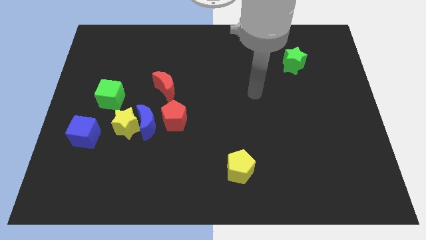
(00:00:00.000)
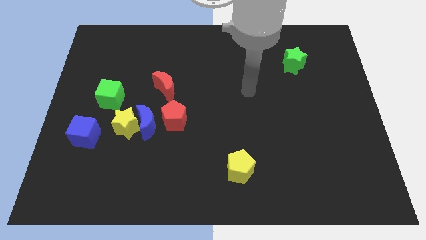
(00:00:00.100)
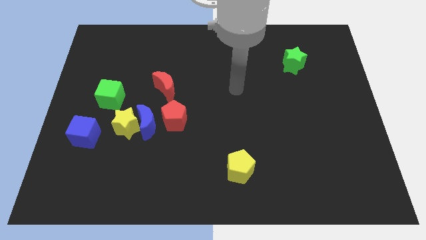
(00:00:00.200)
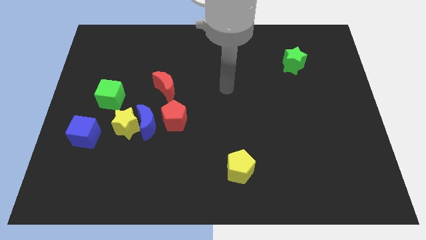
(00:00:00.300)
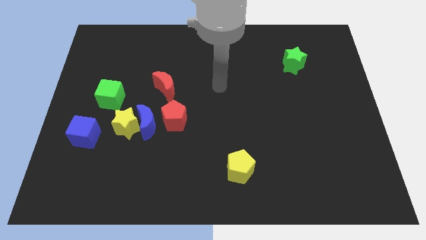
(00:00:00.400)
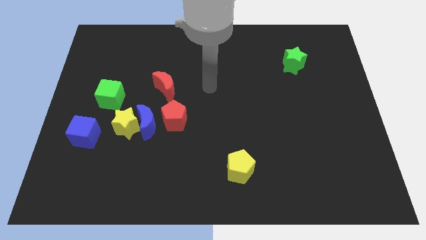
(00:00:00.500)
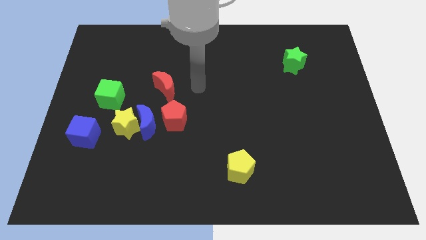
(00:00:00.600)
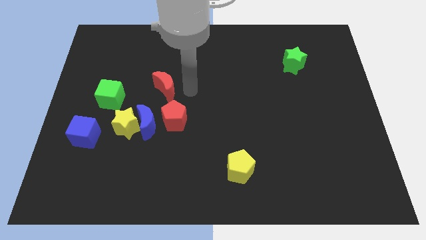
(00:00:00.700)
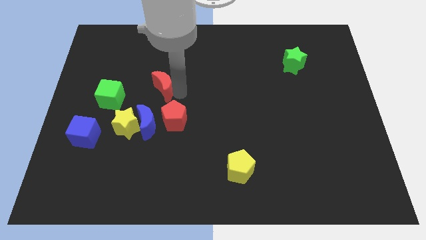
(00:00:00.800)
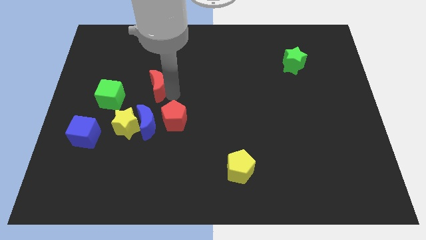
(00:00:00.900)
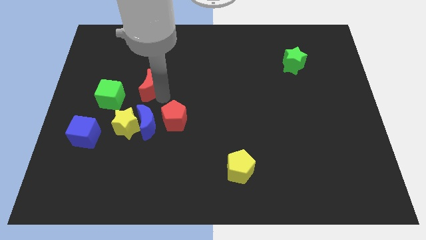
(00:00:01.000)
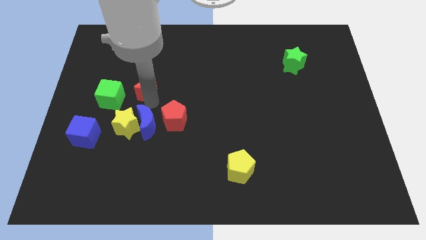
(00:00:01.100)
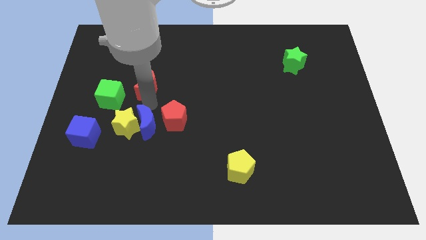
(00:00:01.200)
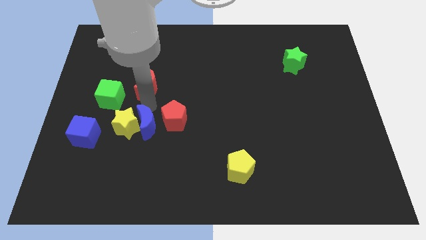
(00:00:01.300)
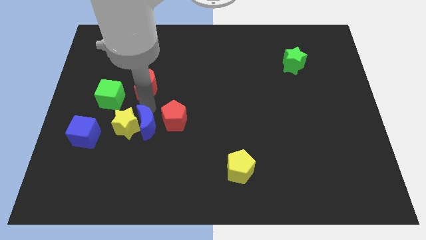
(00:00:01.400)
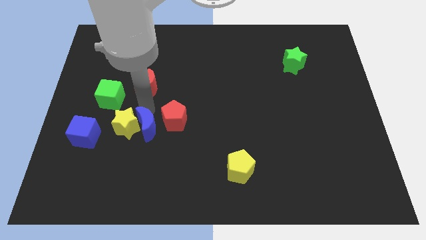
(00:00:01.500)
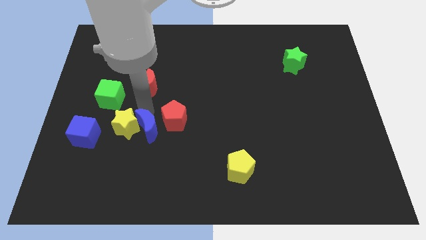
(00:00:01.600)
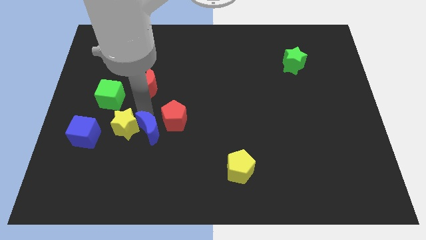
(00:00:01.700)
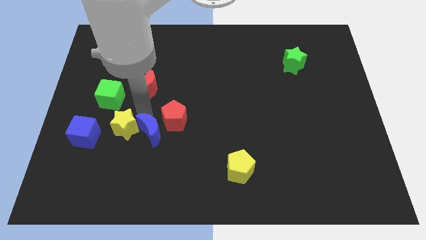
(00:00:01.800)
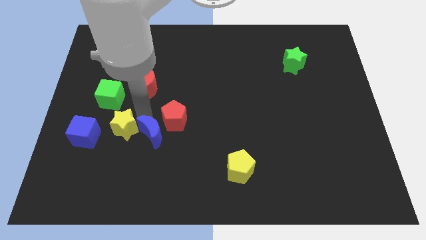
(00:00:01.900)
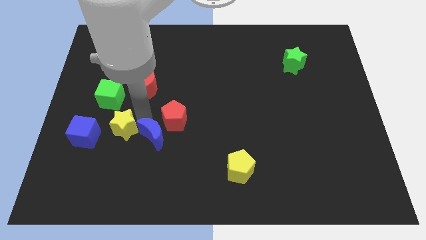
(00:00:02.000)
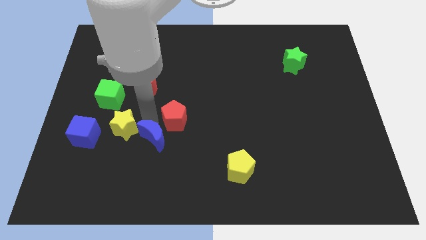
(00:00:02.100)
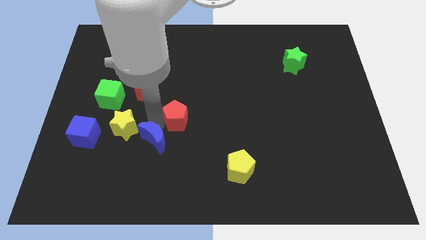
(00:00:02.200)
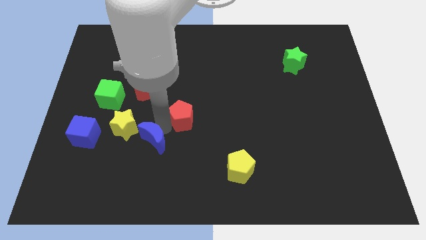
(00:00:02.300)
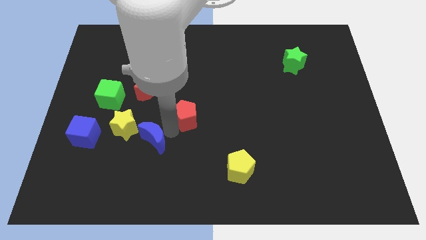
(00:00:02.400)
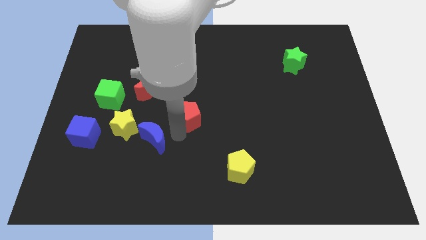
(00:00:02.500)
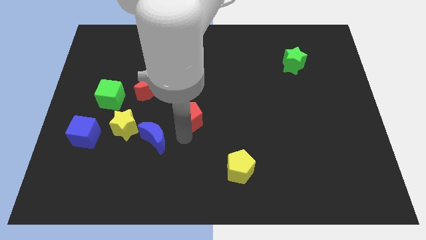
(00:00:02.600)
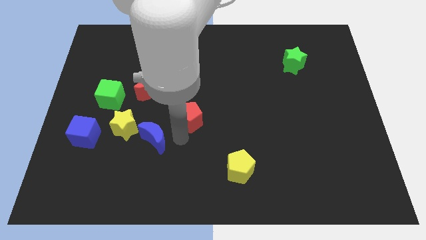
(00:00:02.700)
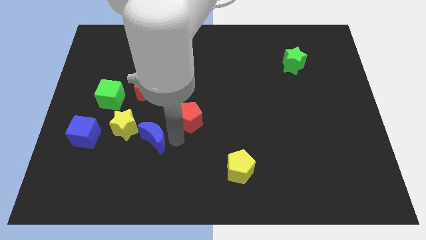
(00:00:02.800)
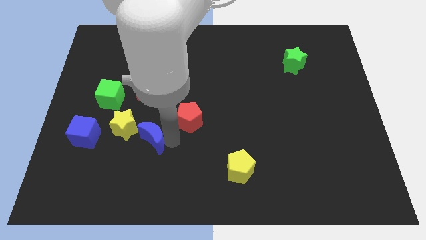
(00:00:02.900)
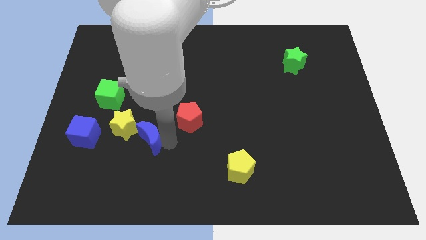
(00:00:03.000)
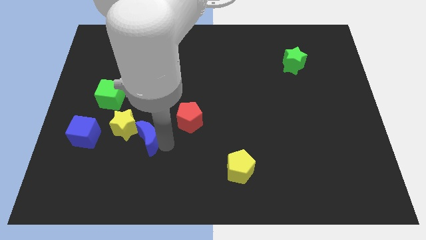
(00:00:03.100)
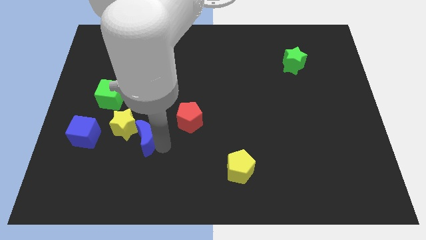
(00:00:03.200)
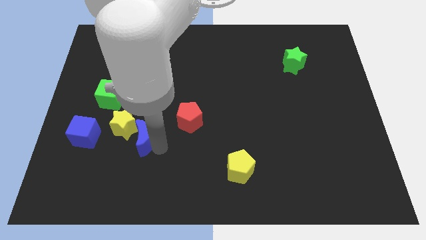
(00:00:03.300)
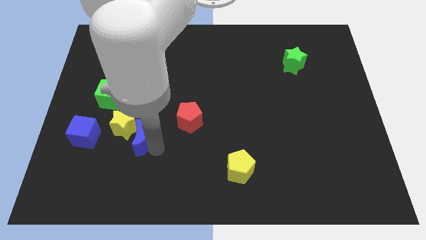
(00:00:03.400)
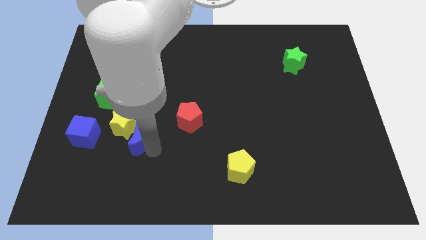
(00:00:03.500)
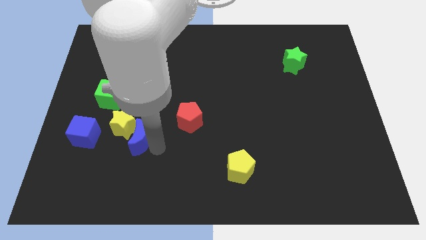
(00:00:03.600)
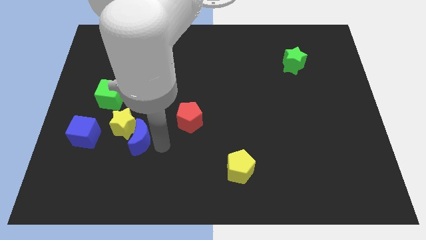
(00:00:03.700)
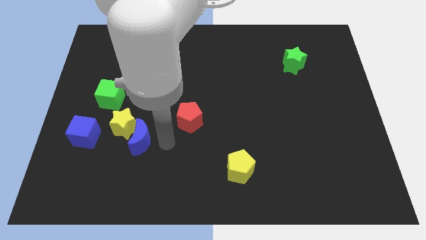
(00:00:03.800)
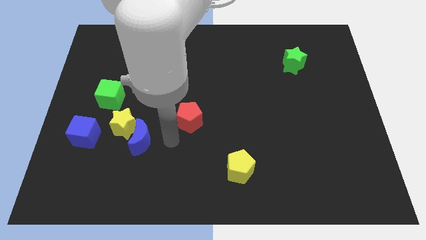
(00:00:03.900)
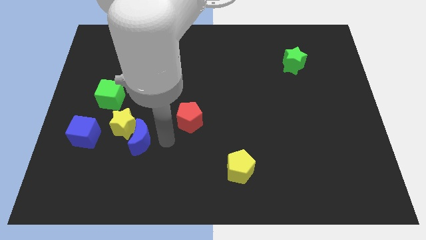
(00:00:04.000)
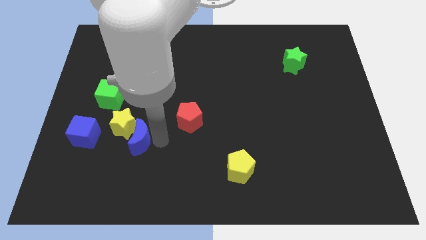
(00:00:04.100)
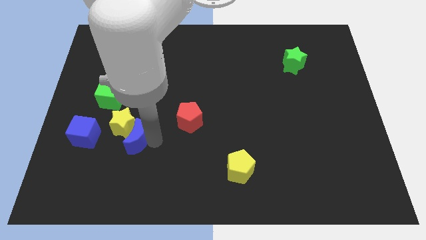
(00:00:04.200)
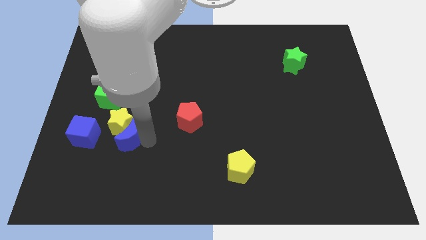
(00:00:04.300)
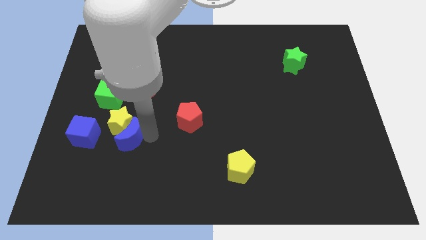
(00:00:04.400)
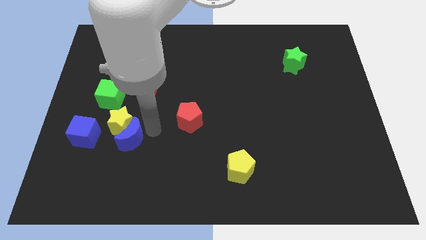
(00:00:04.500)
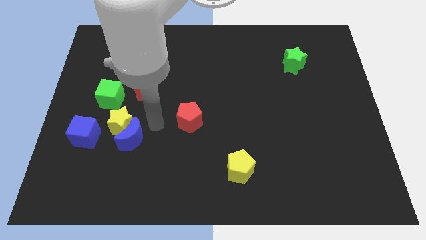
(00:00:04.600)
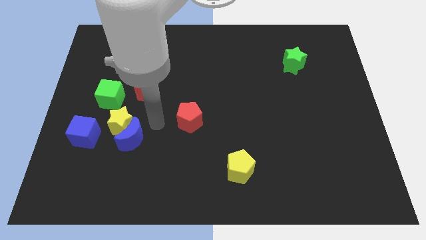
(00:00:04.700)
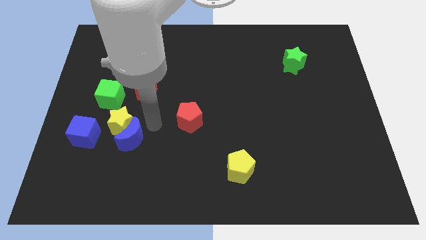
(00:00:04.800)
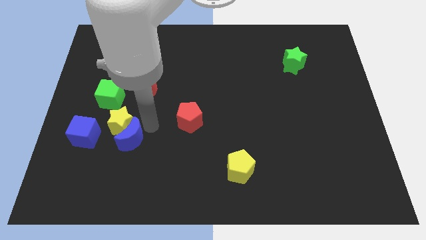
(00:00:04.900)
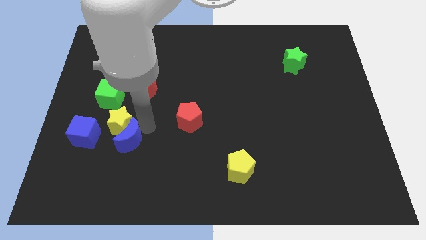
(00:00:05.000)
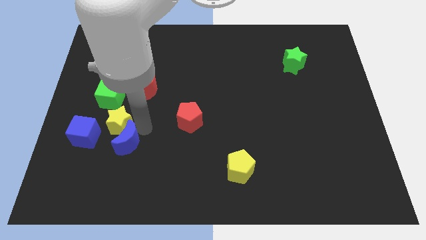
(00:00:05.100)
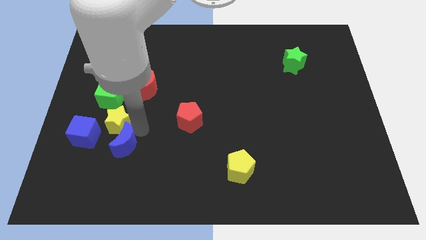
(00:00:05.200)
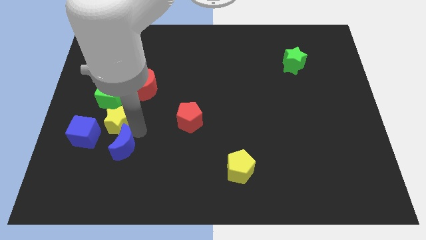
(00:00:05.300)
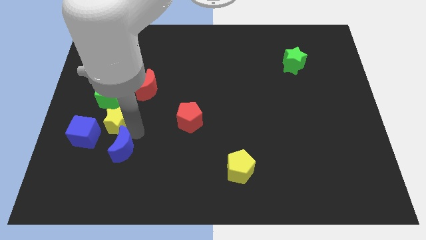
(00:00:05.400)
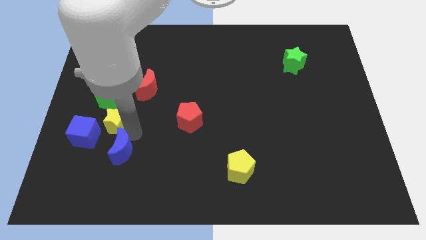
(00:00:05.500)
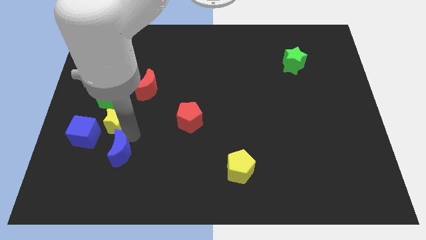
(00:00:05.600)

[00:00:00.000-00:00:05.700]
move the blue moon away from the yellow star and red pentagon

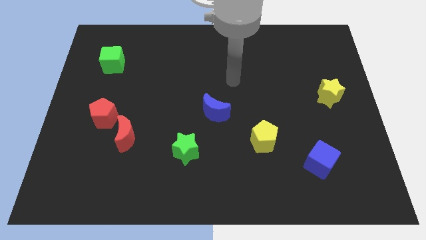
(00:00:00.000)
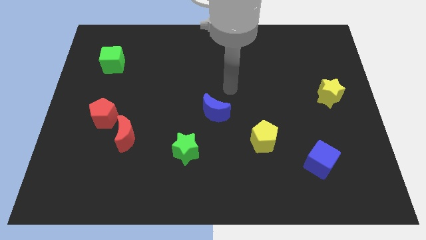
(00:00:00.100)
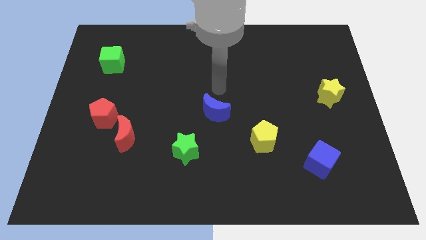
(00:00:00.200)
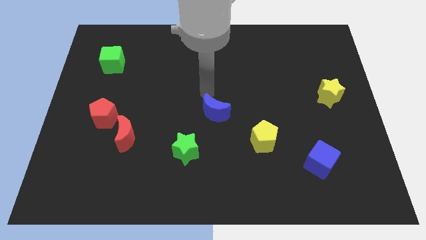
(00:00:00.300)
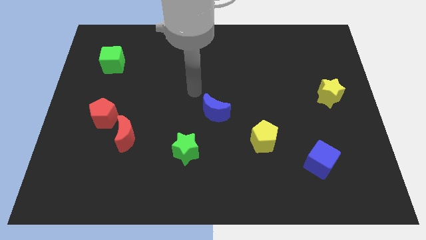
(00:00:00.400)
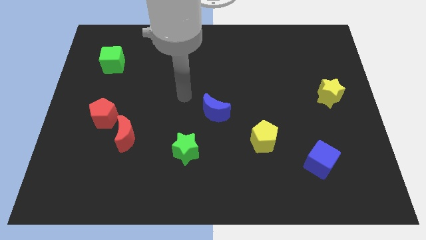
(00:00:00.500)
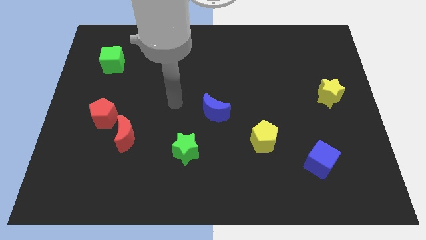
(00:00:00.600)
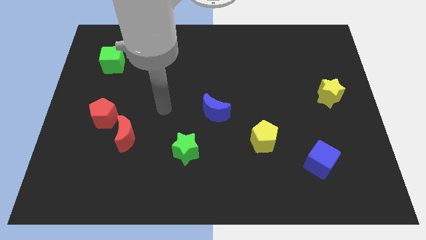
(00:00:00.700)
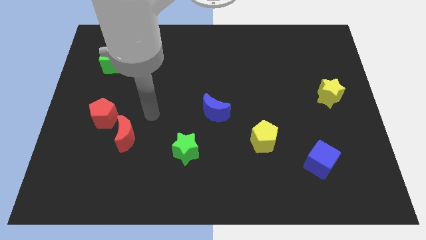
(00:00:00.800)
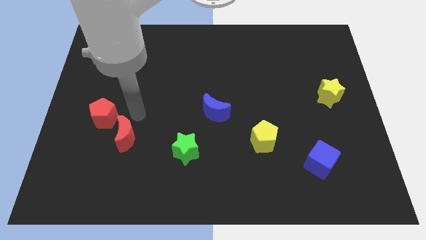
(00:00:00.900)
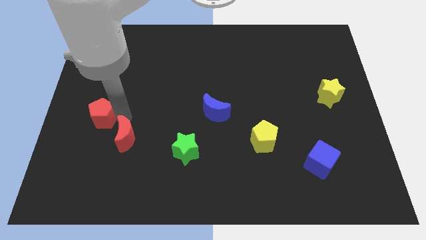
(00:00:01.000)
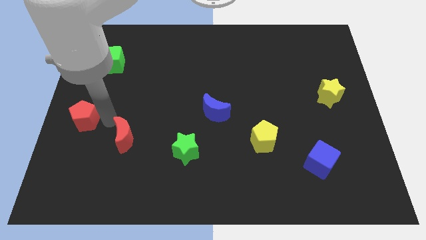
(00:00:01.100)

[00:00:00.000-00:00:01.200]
separate the red moon from the red pentagon

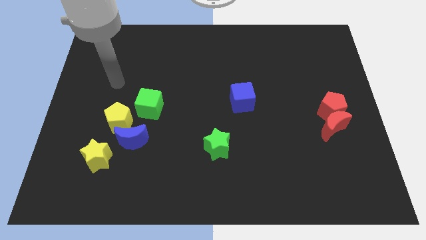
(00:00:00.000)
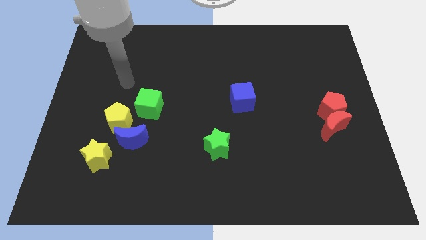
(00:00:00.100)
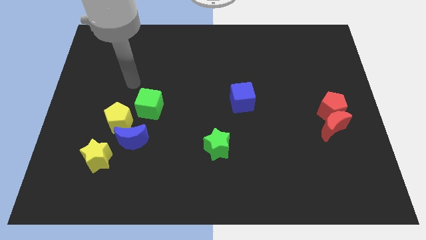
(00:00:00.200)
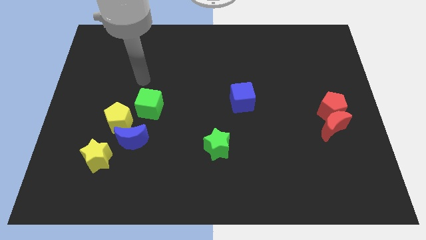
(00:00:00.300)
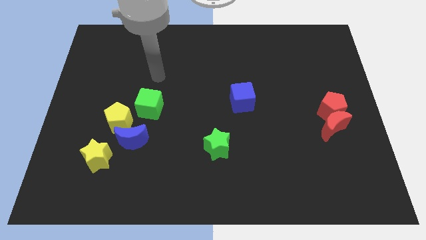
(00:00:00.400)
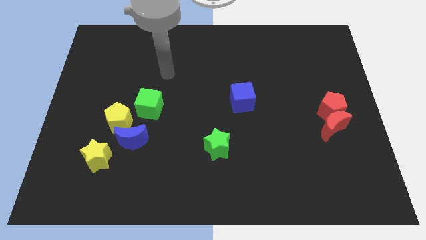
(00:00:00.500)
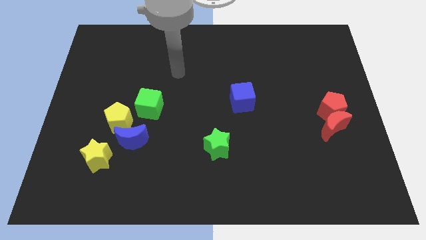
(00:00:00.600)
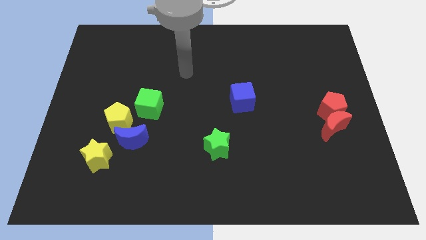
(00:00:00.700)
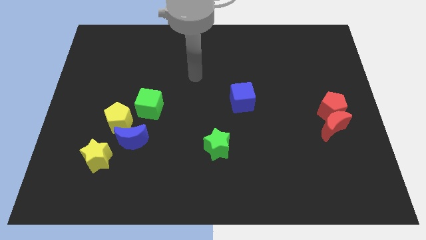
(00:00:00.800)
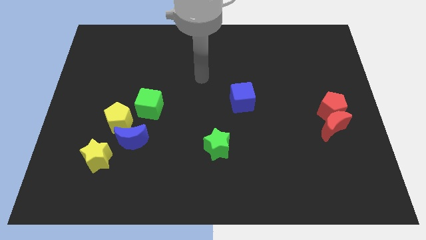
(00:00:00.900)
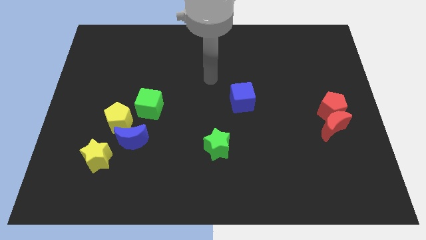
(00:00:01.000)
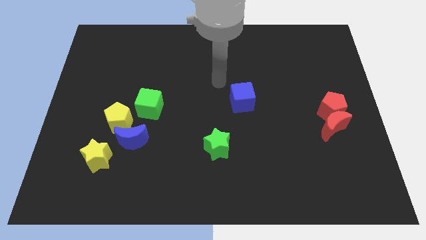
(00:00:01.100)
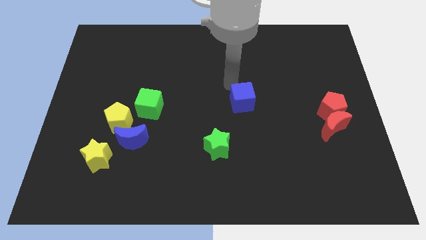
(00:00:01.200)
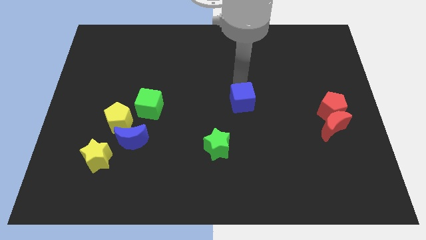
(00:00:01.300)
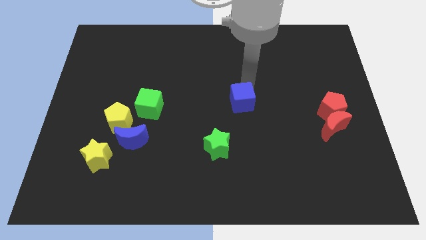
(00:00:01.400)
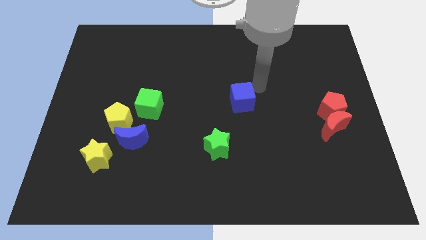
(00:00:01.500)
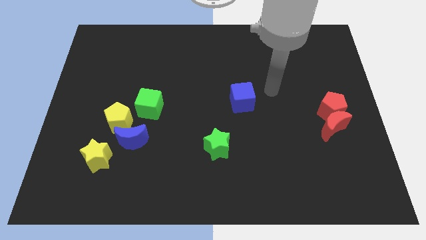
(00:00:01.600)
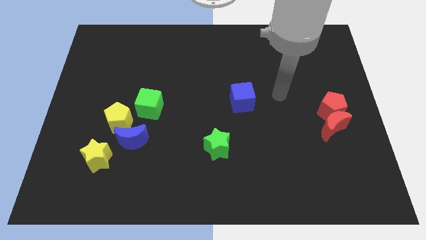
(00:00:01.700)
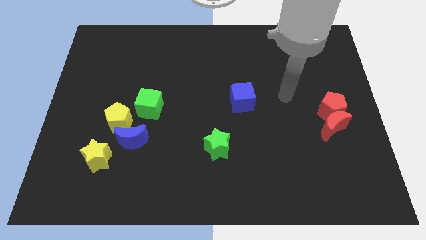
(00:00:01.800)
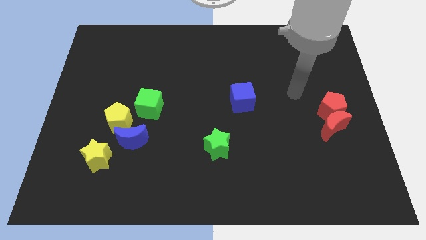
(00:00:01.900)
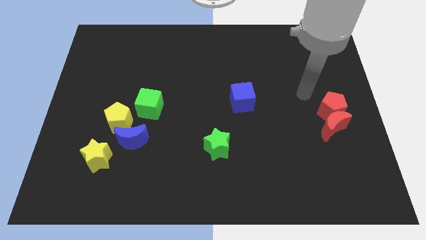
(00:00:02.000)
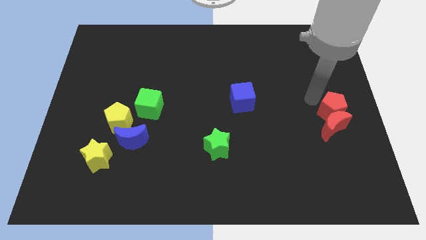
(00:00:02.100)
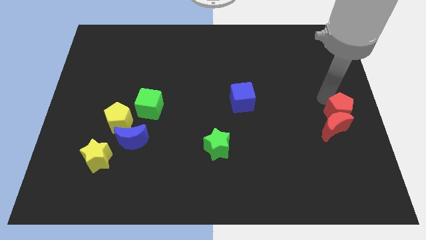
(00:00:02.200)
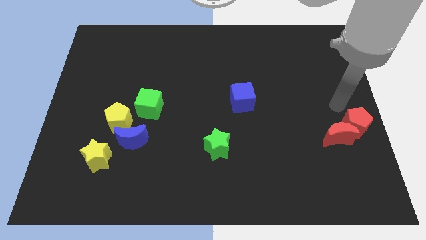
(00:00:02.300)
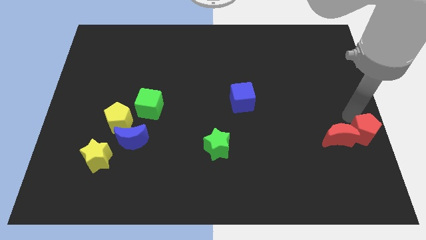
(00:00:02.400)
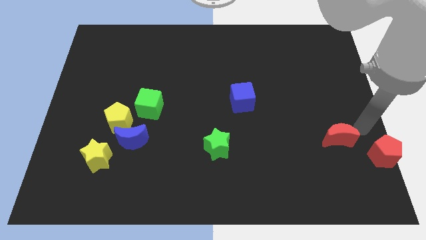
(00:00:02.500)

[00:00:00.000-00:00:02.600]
move the red moon away from the red pentagon
